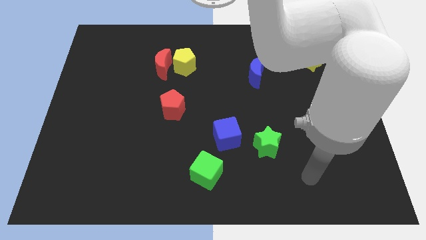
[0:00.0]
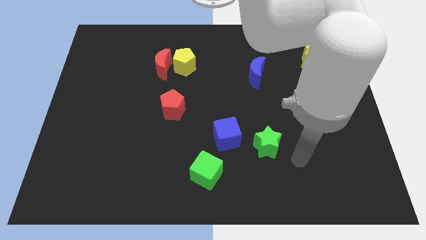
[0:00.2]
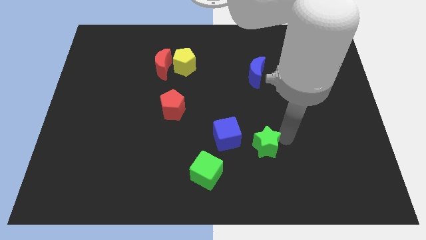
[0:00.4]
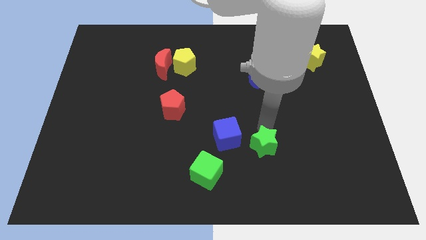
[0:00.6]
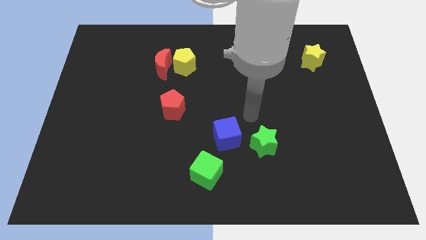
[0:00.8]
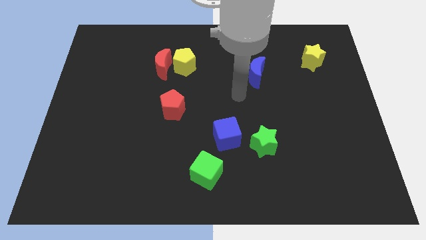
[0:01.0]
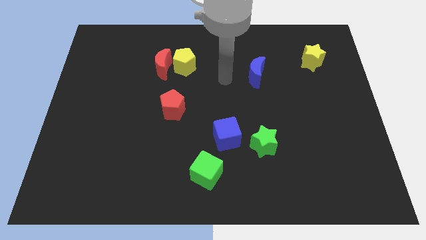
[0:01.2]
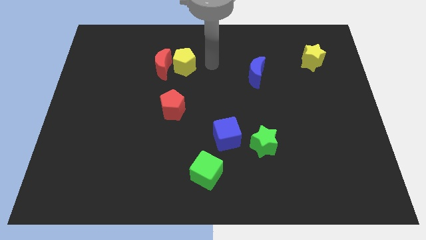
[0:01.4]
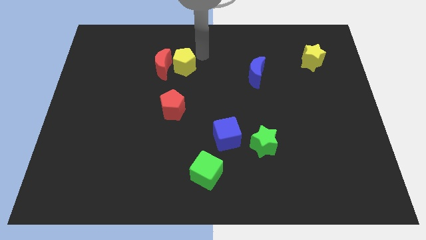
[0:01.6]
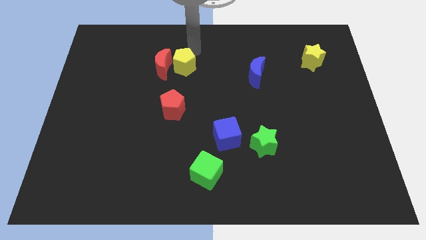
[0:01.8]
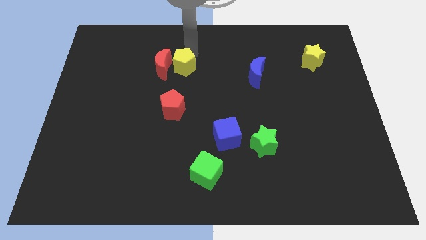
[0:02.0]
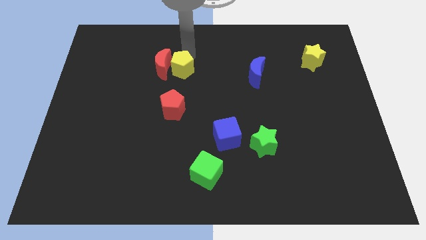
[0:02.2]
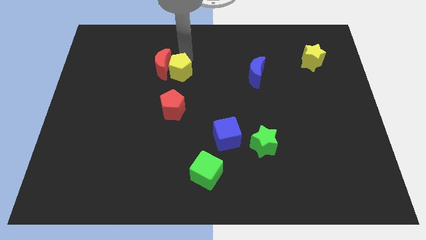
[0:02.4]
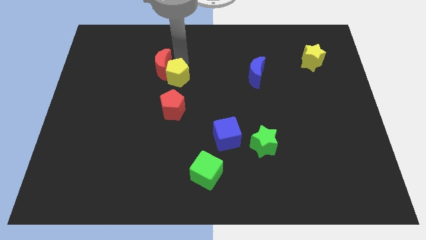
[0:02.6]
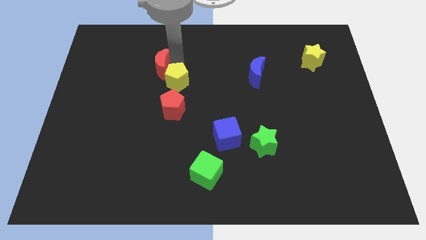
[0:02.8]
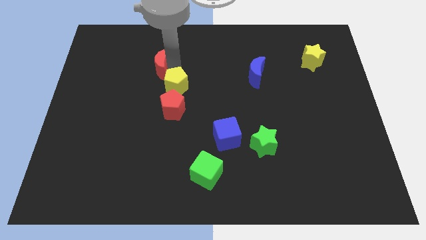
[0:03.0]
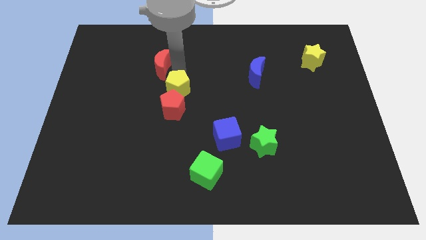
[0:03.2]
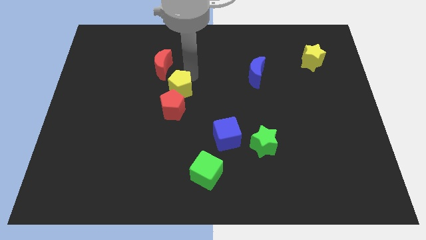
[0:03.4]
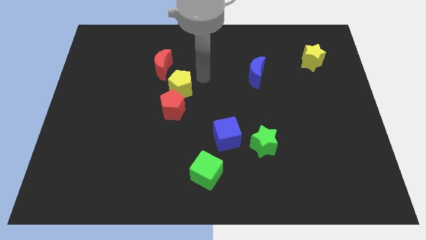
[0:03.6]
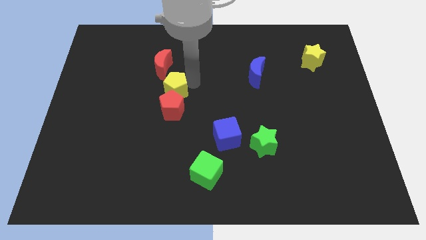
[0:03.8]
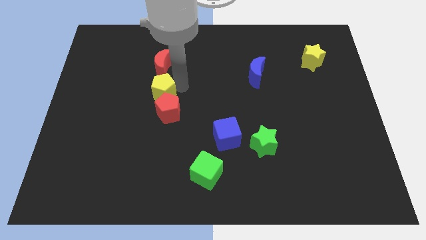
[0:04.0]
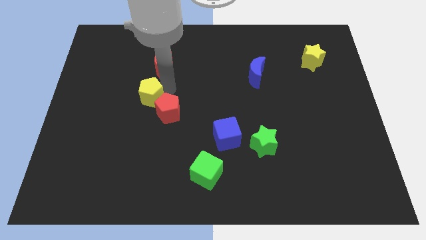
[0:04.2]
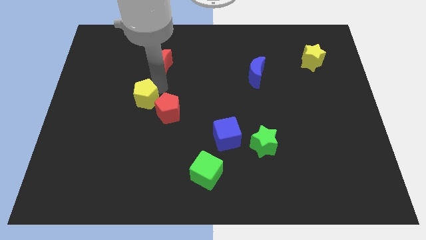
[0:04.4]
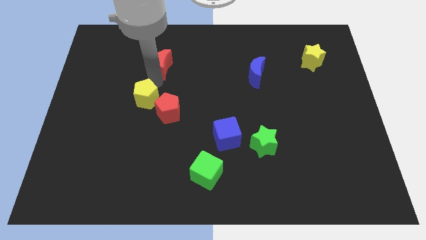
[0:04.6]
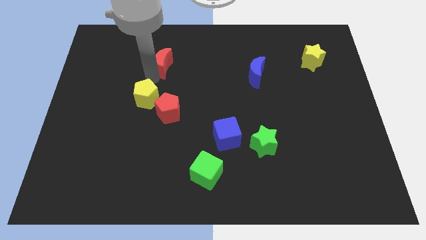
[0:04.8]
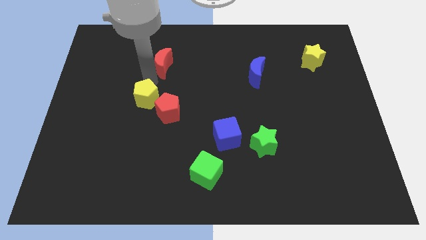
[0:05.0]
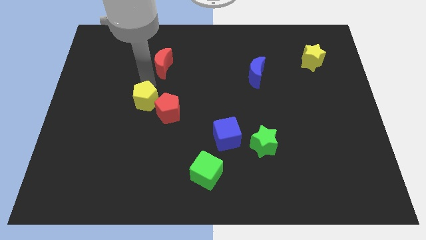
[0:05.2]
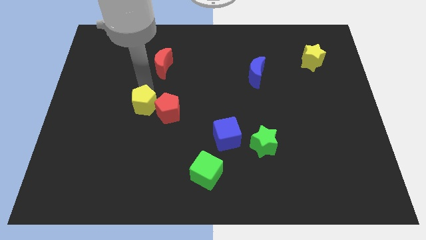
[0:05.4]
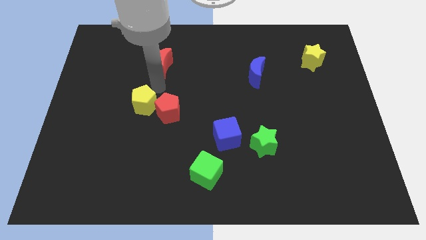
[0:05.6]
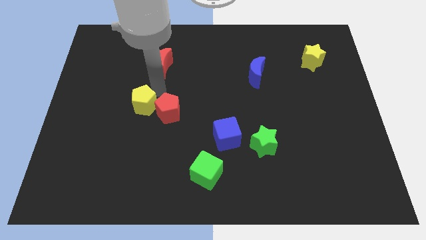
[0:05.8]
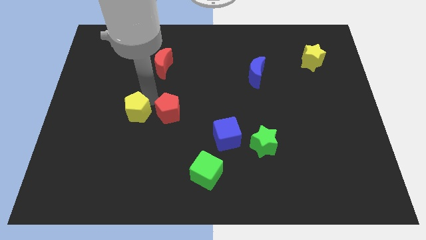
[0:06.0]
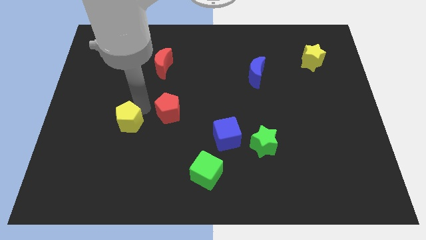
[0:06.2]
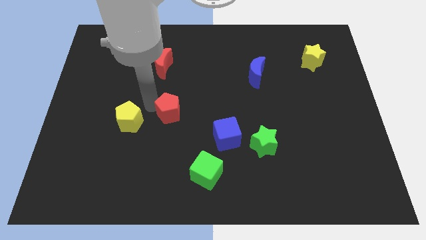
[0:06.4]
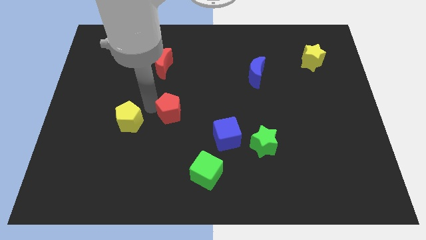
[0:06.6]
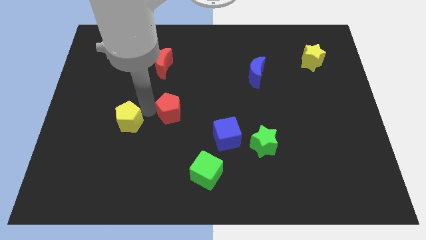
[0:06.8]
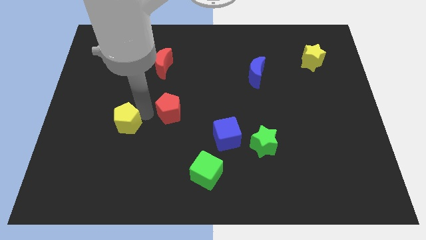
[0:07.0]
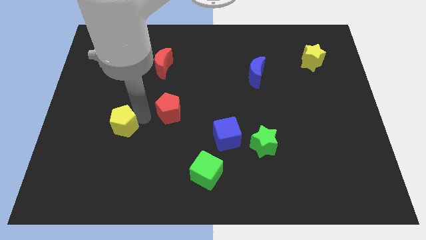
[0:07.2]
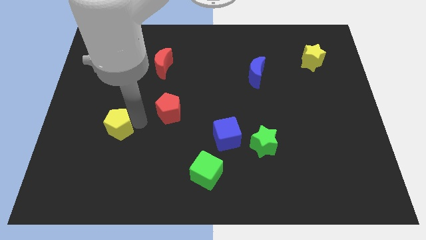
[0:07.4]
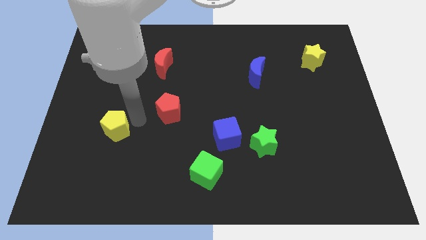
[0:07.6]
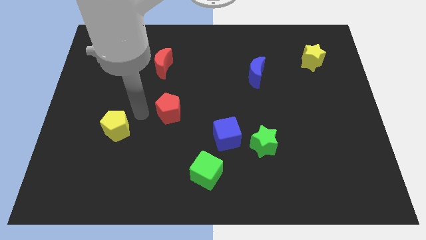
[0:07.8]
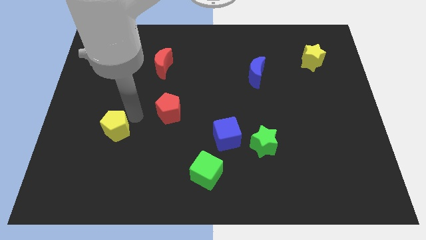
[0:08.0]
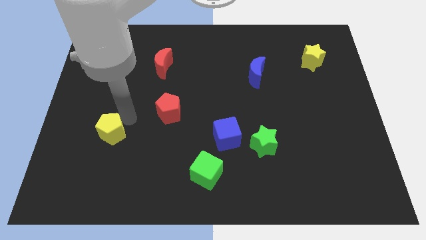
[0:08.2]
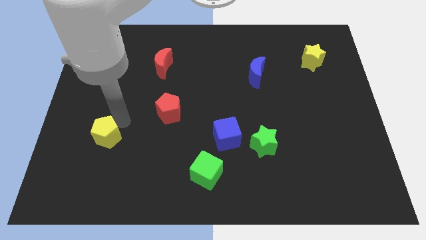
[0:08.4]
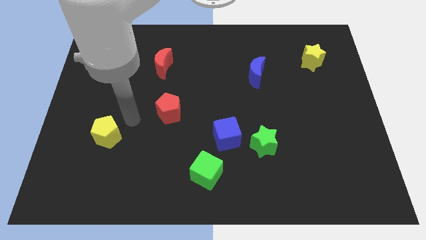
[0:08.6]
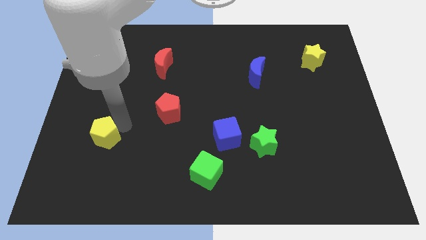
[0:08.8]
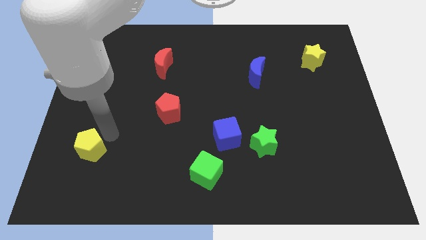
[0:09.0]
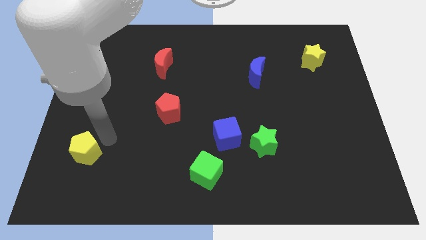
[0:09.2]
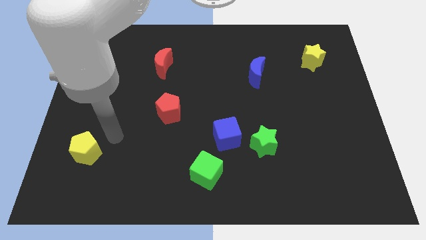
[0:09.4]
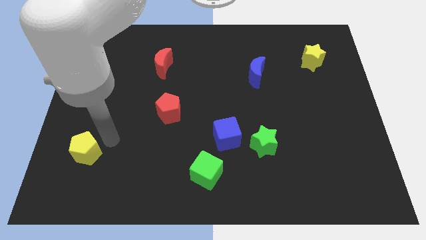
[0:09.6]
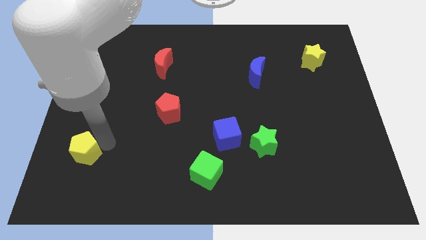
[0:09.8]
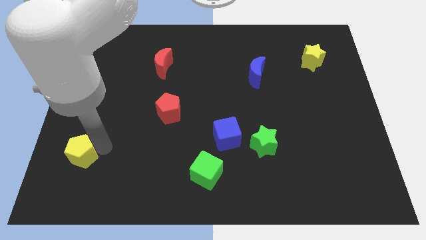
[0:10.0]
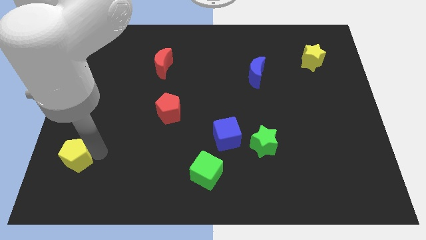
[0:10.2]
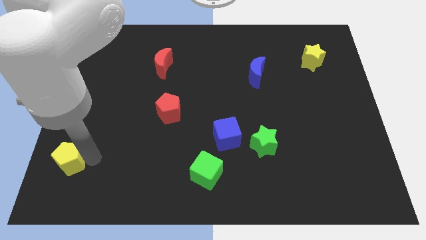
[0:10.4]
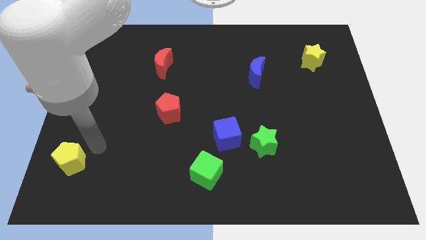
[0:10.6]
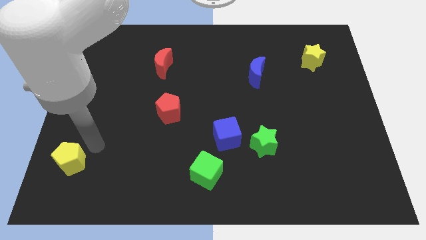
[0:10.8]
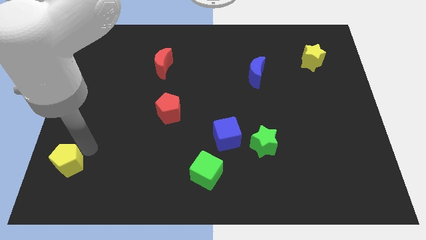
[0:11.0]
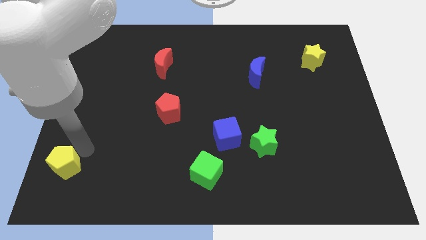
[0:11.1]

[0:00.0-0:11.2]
put the yellow pentagon to the bottom left

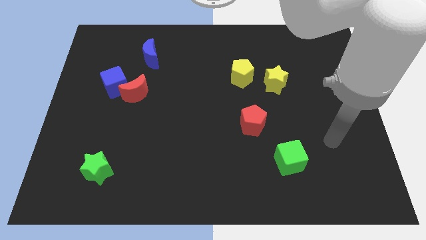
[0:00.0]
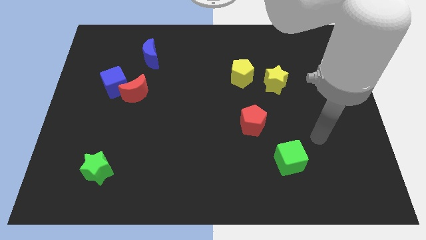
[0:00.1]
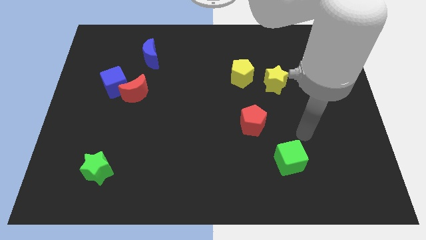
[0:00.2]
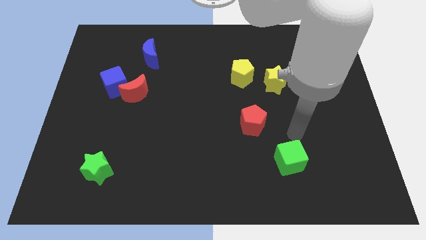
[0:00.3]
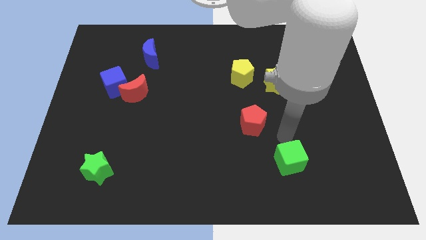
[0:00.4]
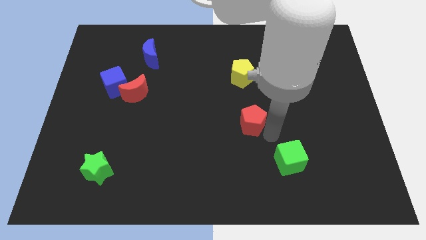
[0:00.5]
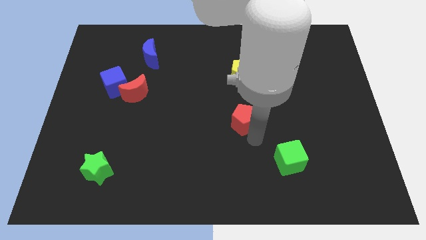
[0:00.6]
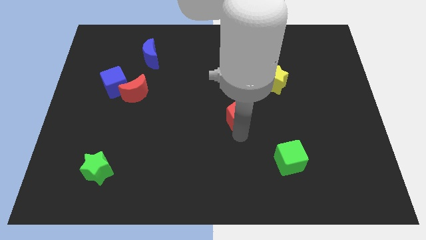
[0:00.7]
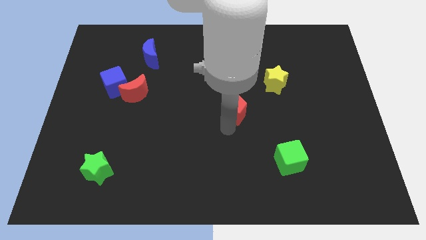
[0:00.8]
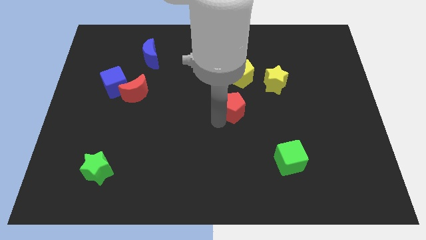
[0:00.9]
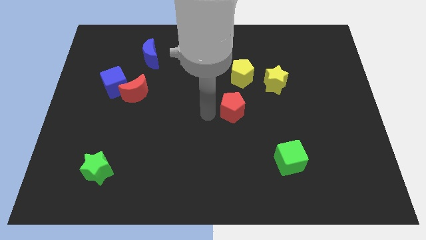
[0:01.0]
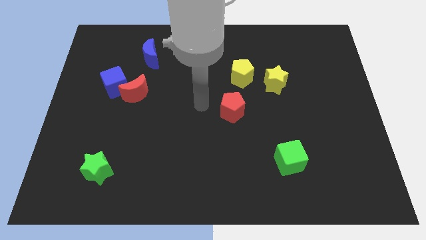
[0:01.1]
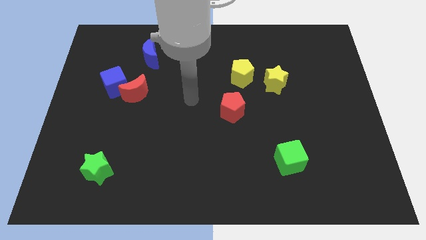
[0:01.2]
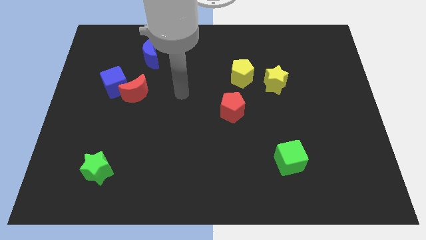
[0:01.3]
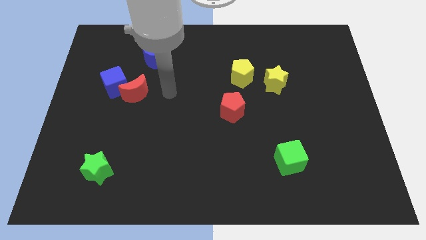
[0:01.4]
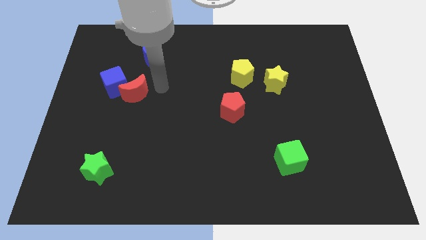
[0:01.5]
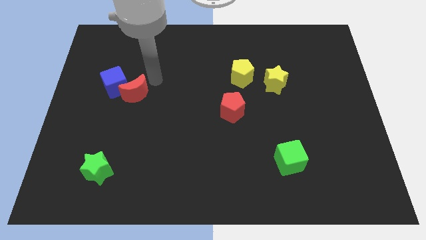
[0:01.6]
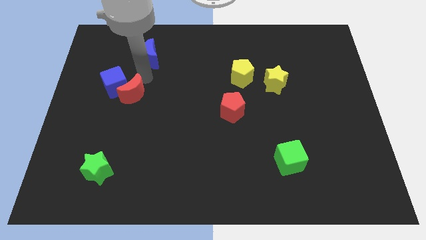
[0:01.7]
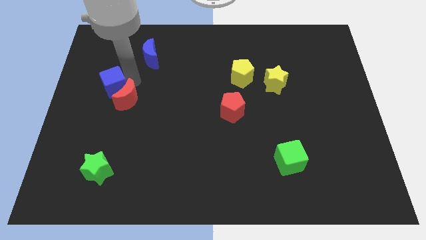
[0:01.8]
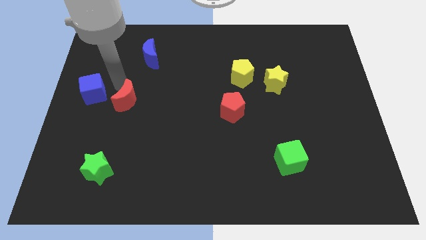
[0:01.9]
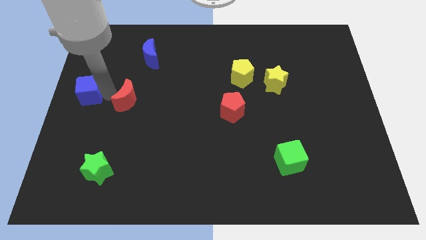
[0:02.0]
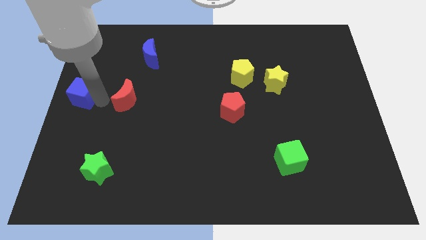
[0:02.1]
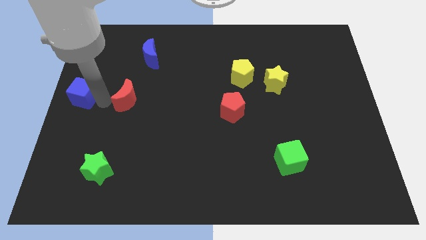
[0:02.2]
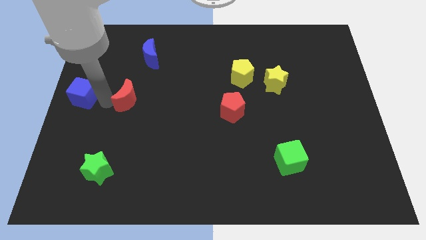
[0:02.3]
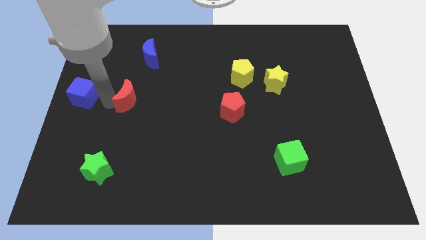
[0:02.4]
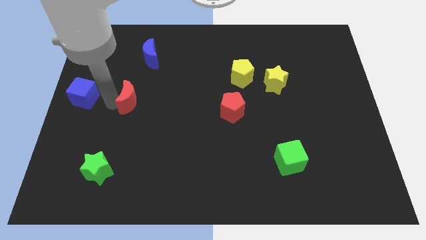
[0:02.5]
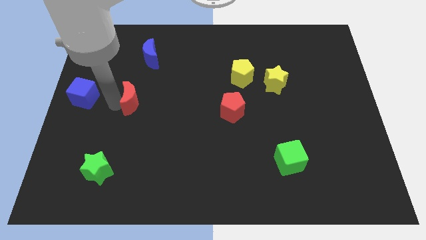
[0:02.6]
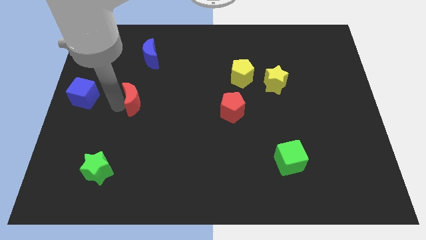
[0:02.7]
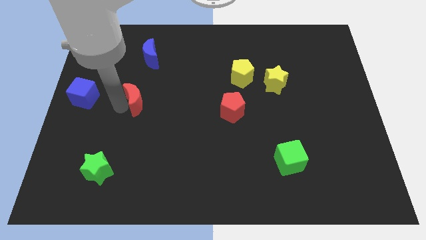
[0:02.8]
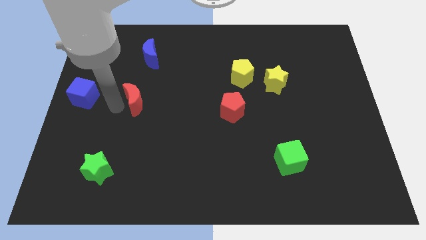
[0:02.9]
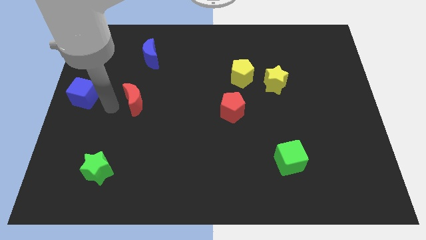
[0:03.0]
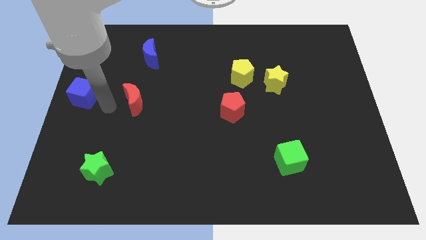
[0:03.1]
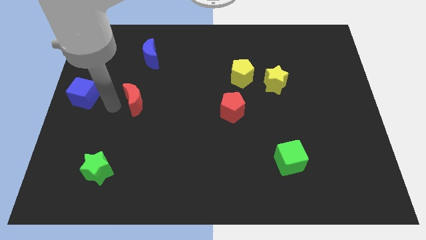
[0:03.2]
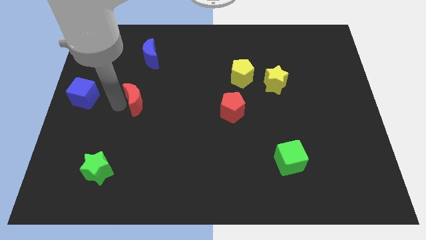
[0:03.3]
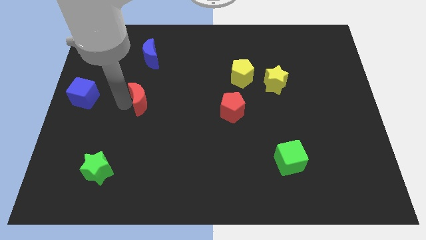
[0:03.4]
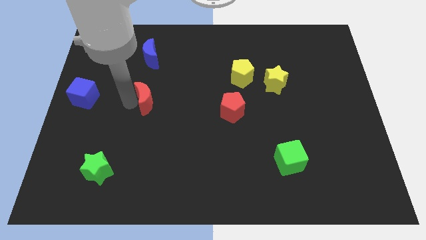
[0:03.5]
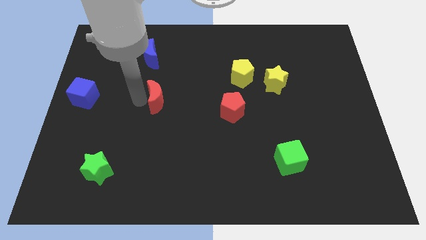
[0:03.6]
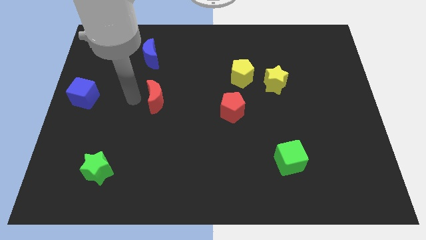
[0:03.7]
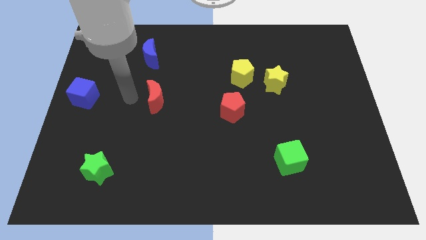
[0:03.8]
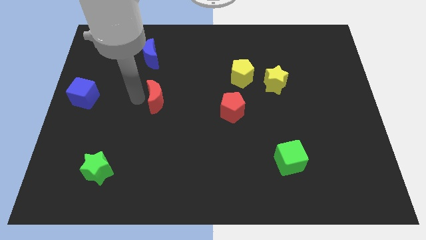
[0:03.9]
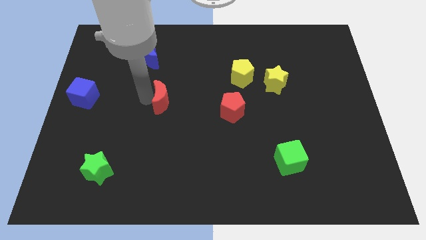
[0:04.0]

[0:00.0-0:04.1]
push the red moon to the center of the board
